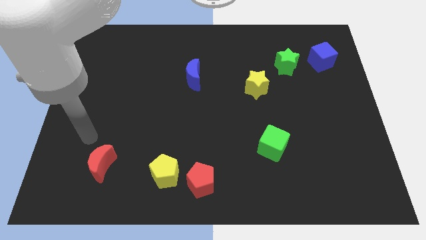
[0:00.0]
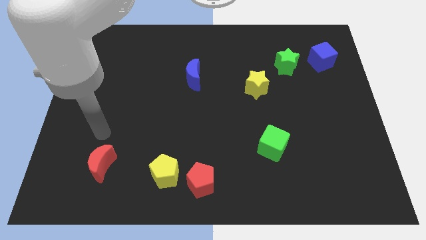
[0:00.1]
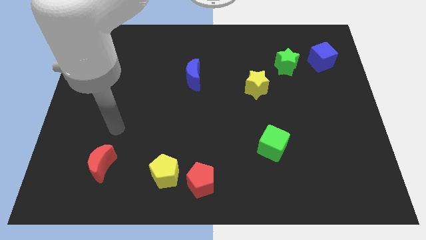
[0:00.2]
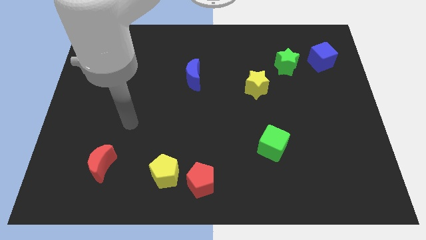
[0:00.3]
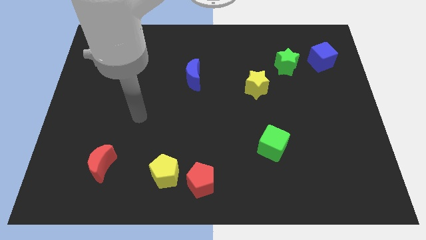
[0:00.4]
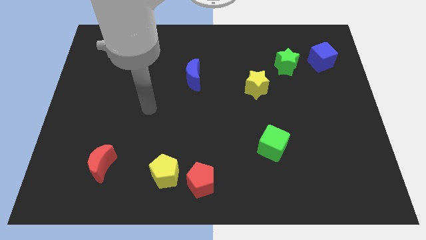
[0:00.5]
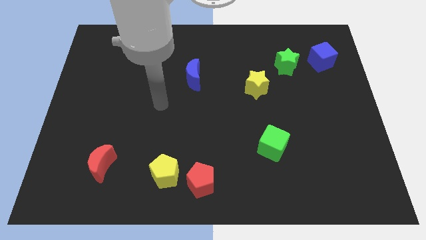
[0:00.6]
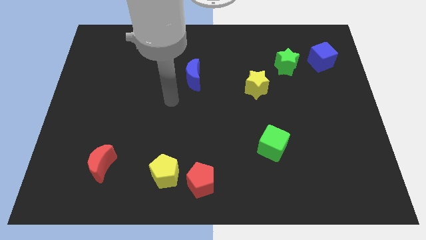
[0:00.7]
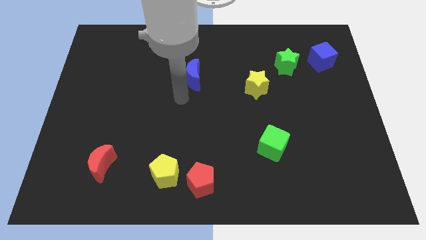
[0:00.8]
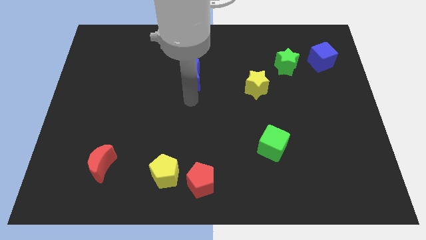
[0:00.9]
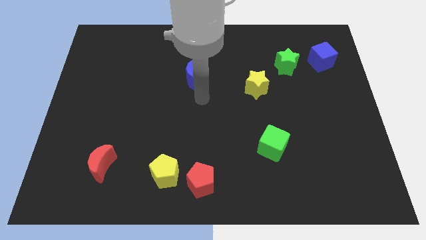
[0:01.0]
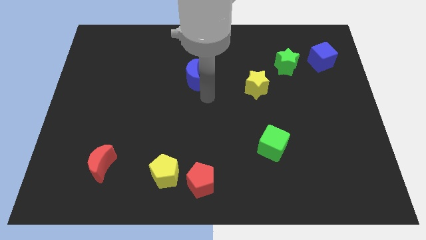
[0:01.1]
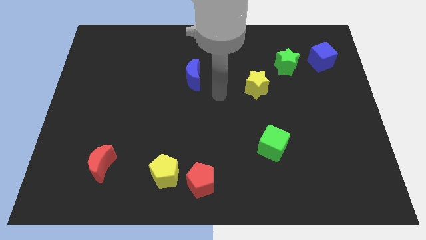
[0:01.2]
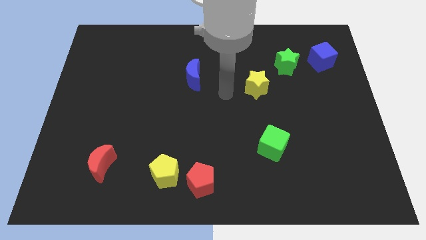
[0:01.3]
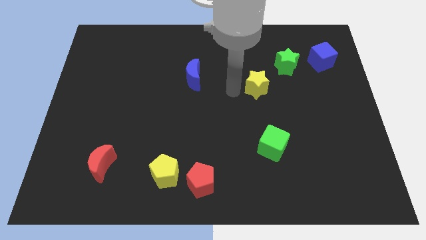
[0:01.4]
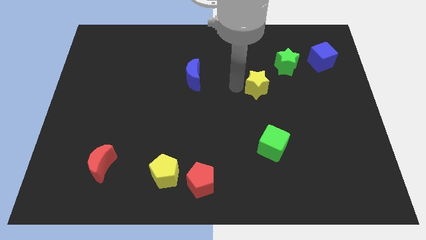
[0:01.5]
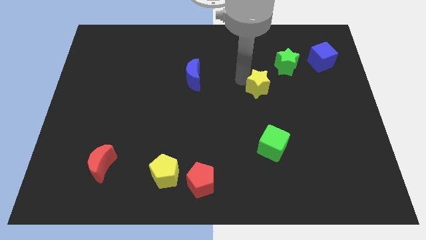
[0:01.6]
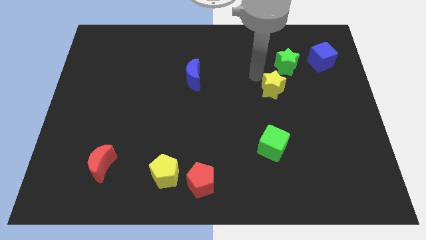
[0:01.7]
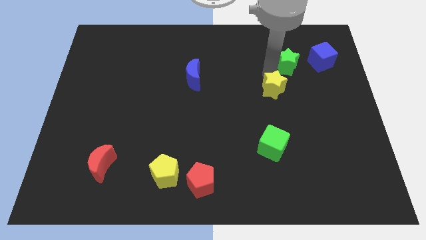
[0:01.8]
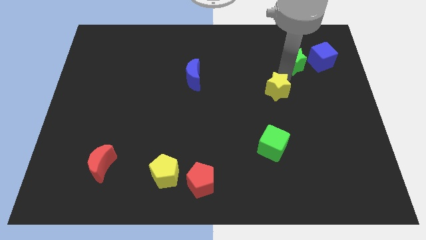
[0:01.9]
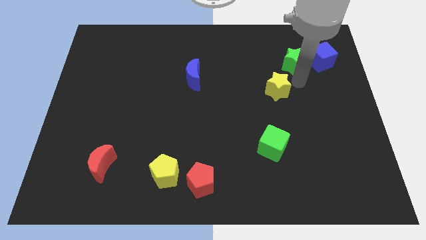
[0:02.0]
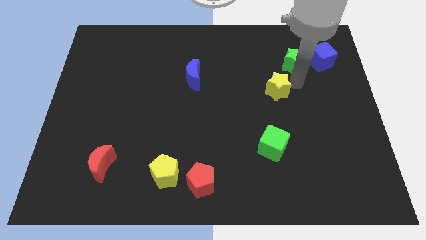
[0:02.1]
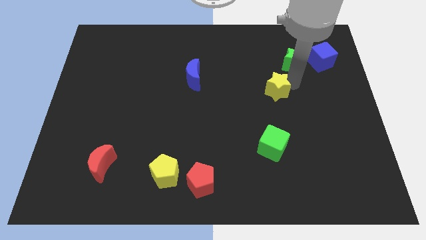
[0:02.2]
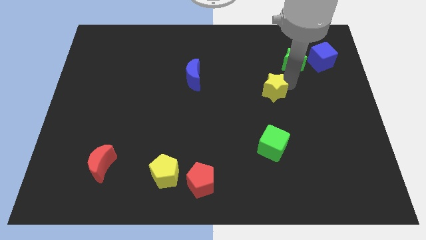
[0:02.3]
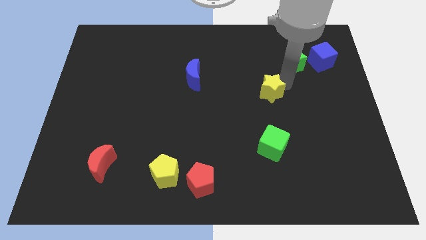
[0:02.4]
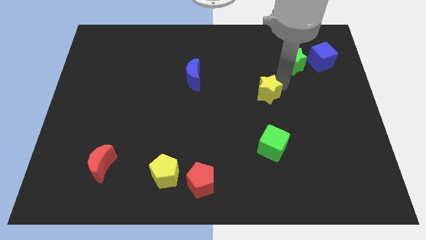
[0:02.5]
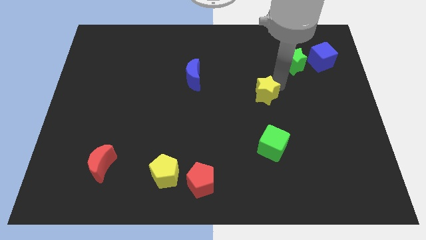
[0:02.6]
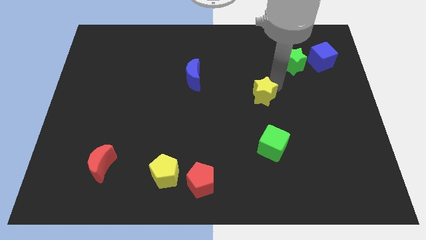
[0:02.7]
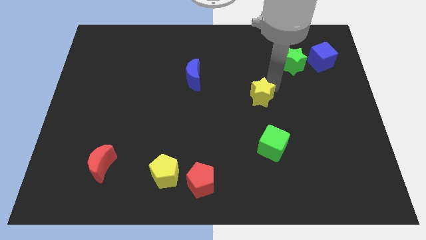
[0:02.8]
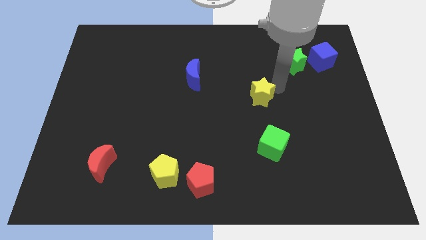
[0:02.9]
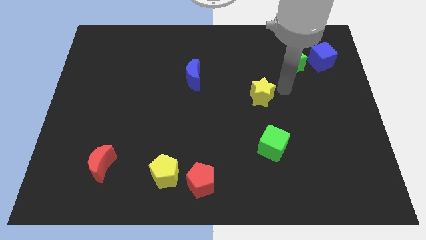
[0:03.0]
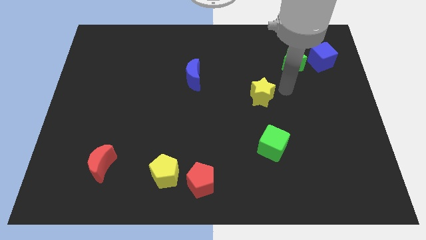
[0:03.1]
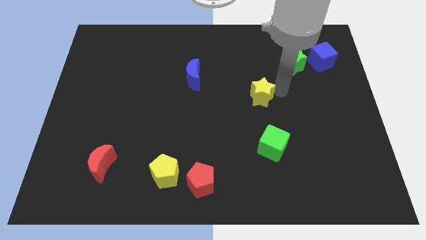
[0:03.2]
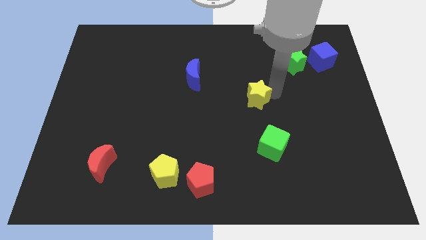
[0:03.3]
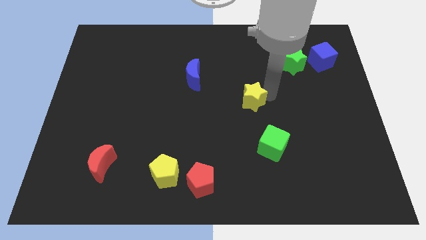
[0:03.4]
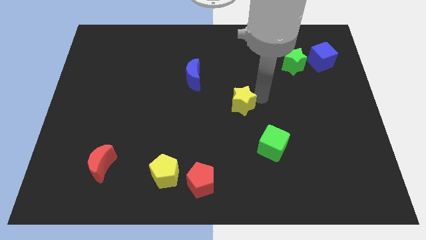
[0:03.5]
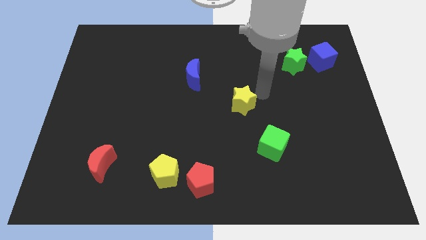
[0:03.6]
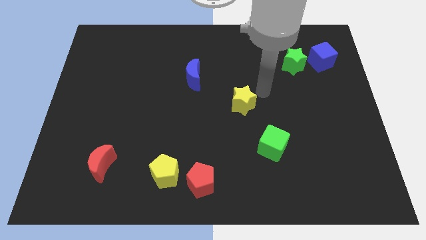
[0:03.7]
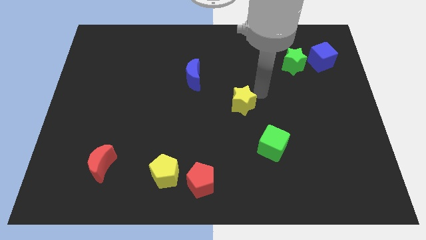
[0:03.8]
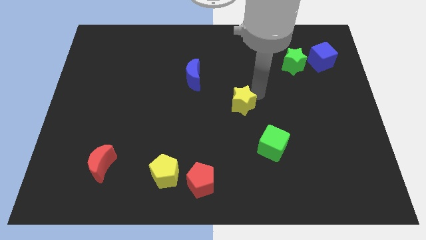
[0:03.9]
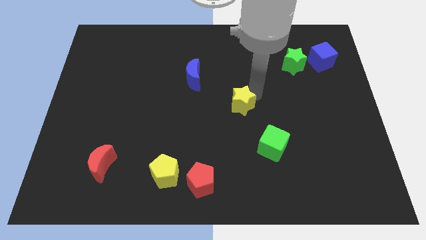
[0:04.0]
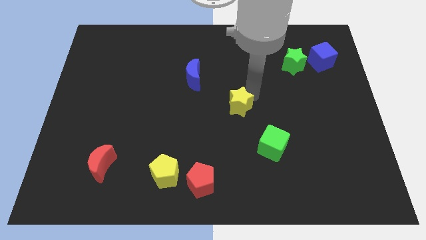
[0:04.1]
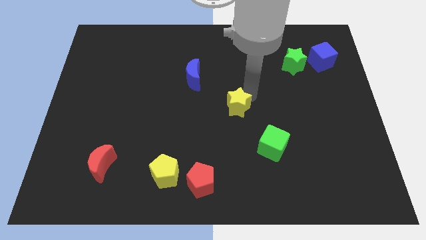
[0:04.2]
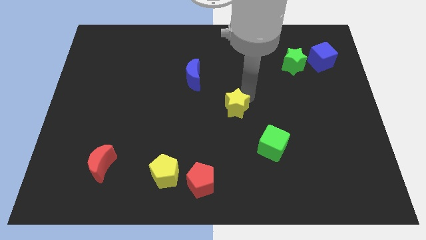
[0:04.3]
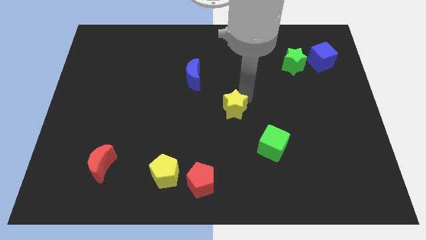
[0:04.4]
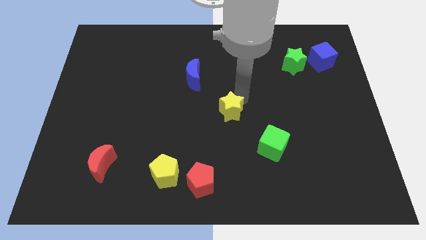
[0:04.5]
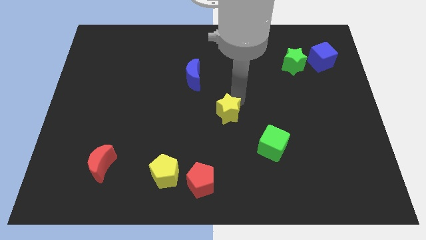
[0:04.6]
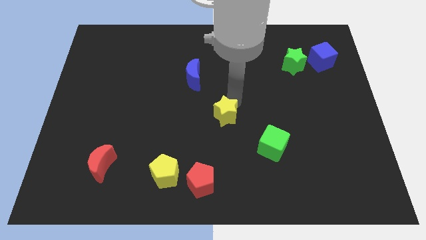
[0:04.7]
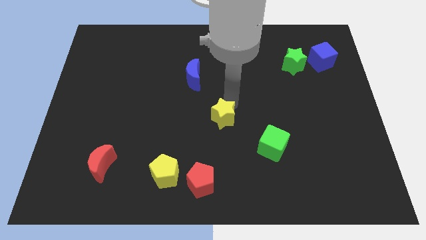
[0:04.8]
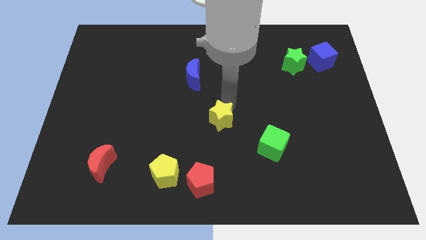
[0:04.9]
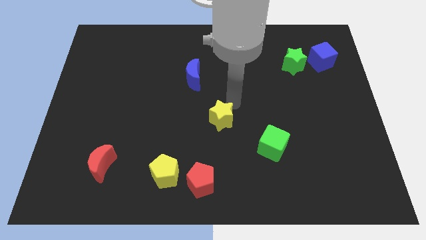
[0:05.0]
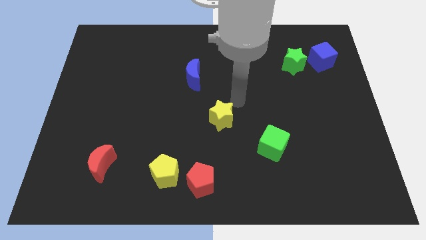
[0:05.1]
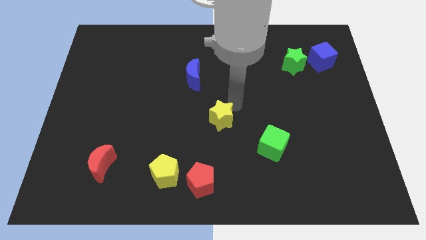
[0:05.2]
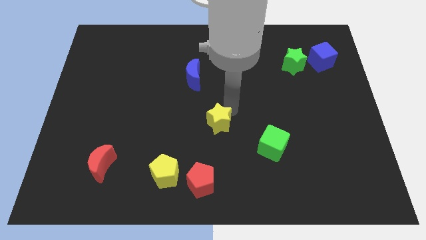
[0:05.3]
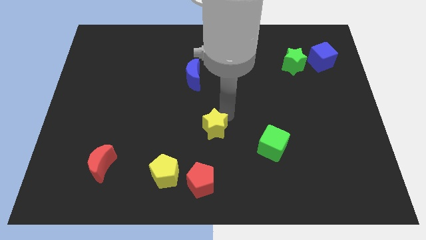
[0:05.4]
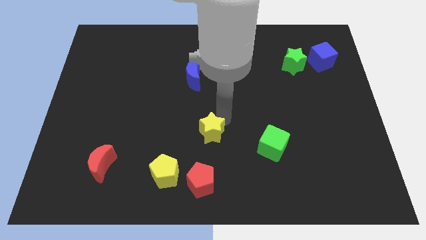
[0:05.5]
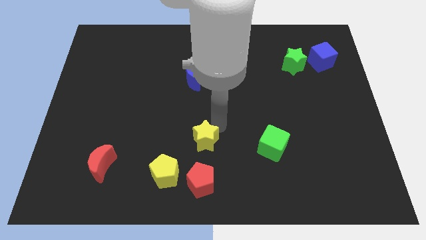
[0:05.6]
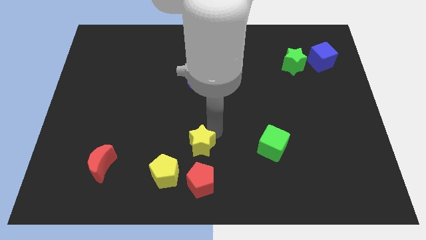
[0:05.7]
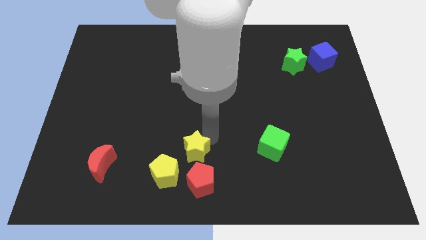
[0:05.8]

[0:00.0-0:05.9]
slide the yellow star to the top left of the red pentagon

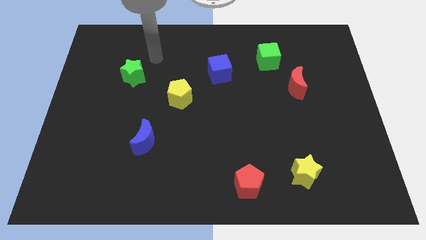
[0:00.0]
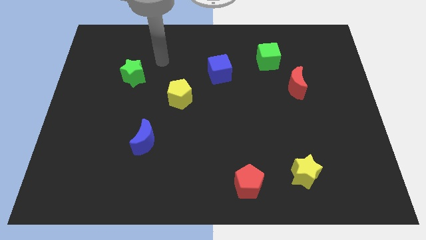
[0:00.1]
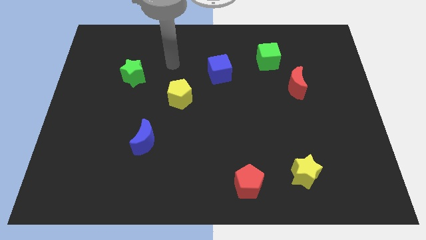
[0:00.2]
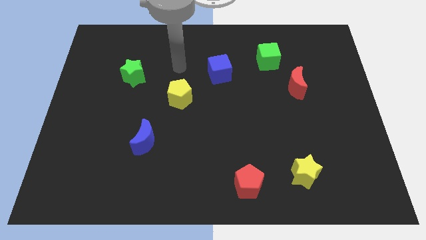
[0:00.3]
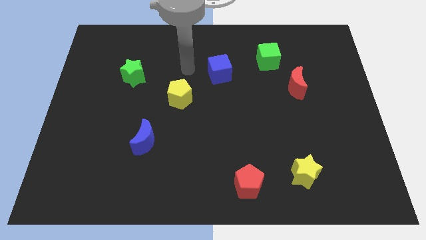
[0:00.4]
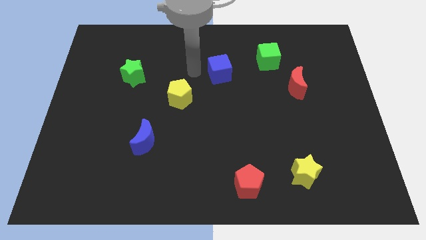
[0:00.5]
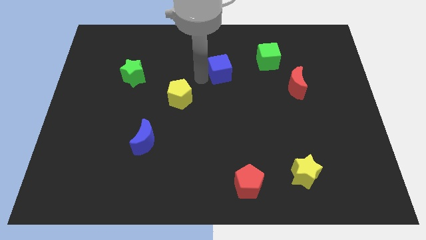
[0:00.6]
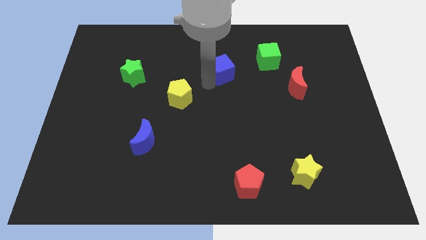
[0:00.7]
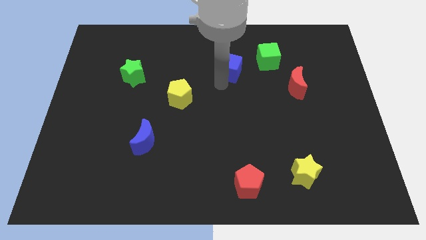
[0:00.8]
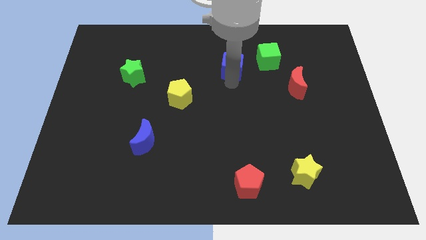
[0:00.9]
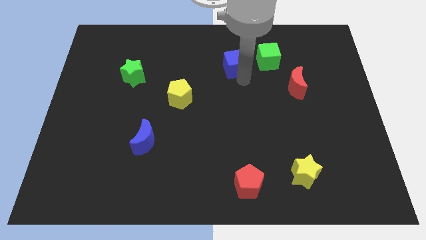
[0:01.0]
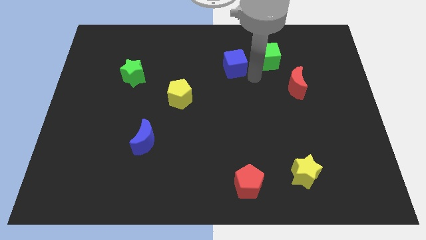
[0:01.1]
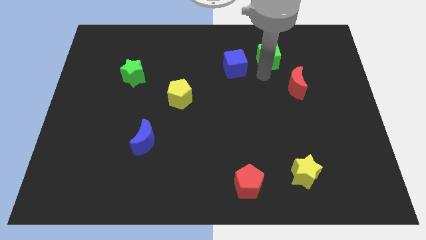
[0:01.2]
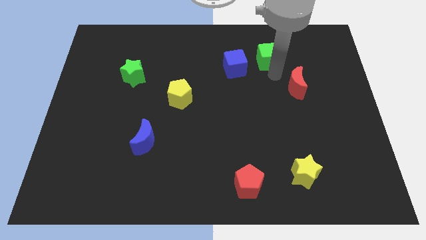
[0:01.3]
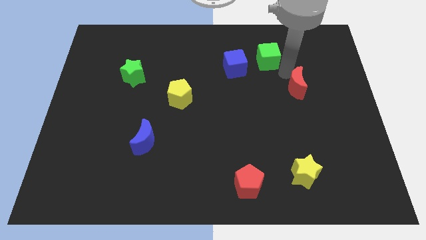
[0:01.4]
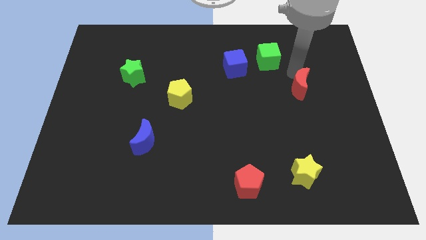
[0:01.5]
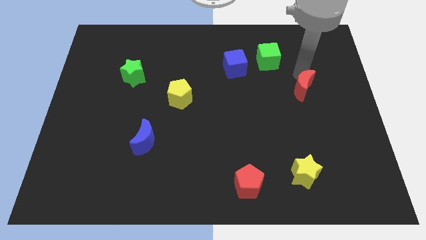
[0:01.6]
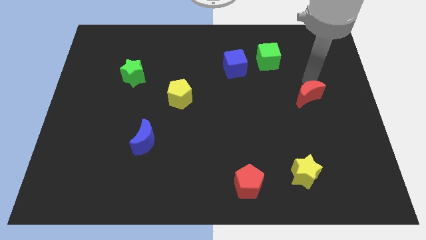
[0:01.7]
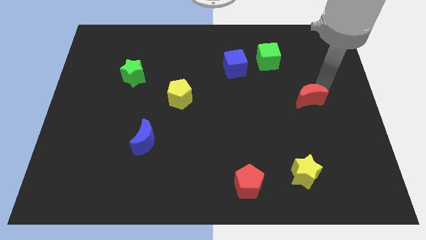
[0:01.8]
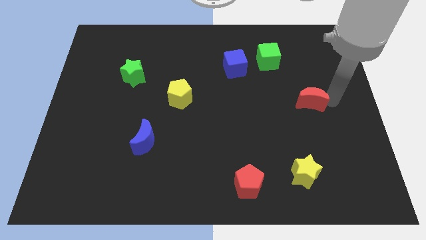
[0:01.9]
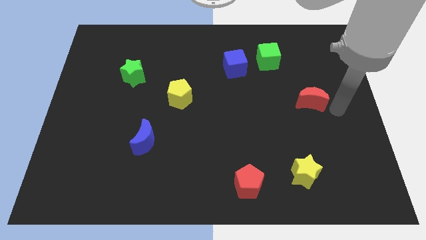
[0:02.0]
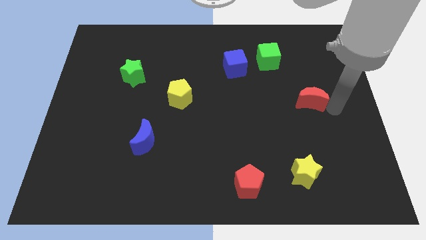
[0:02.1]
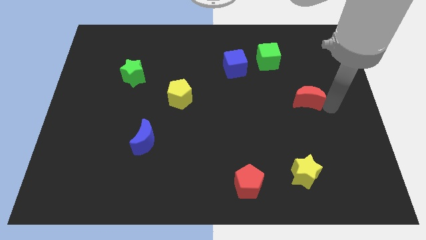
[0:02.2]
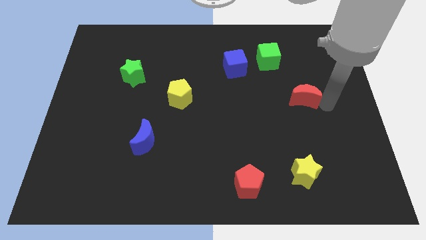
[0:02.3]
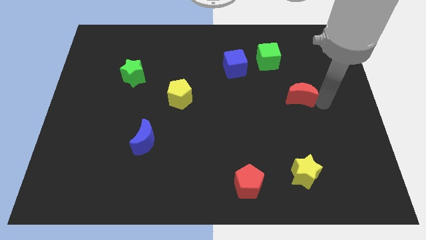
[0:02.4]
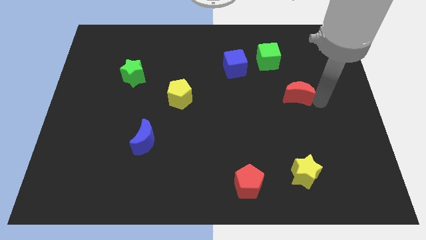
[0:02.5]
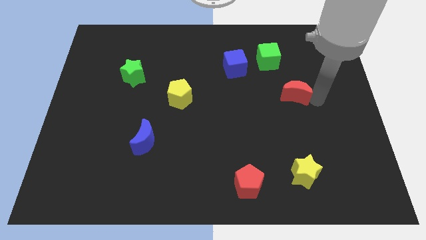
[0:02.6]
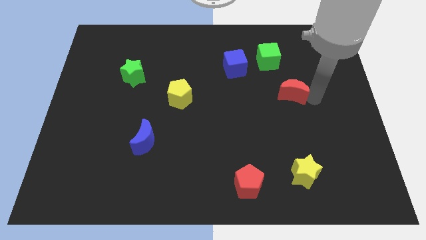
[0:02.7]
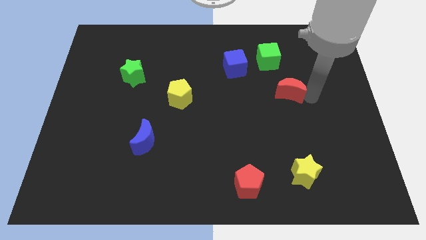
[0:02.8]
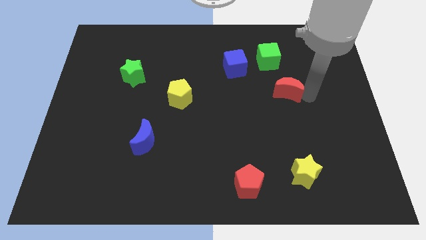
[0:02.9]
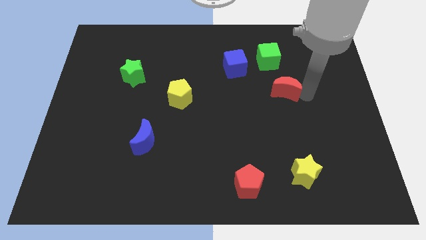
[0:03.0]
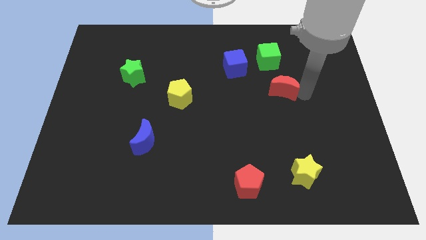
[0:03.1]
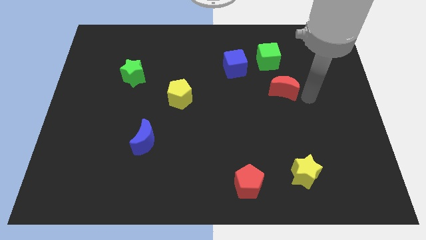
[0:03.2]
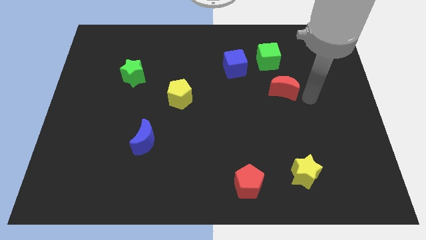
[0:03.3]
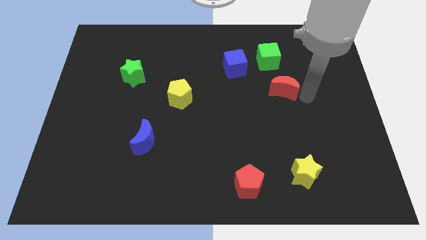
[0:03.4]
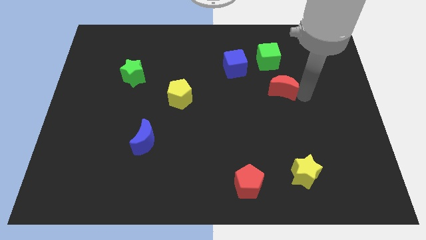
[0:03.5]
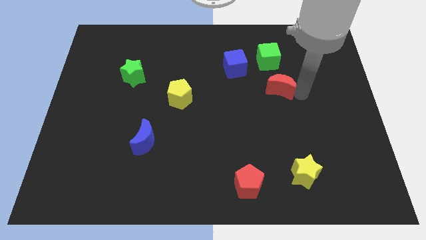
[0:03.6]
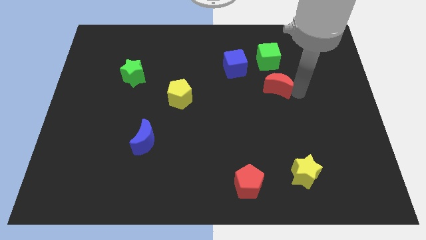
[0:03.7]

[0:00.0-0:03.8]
move the red moon diagonally down and to the right of the blue cube
